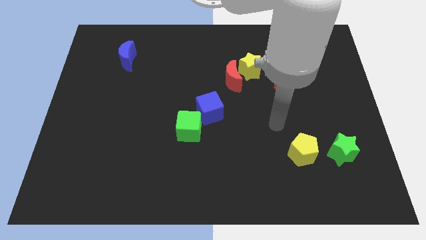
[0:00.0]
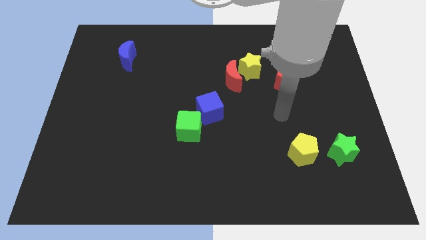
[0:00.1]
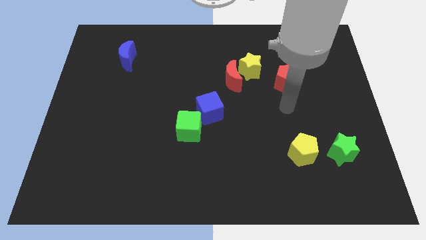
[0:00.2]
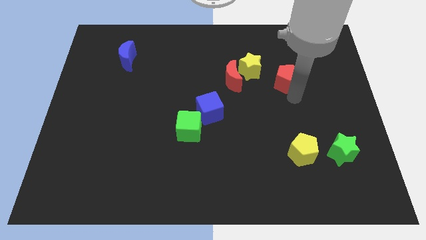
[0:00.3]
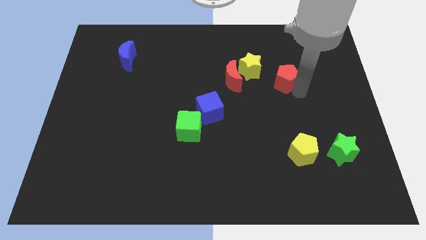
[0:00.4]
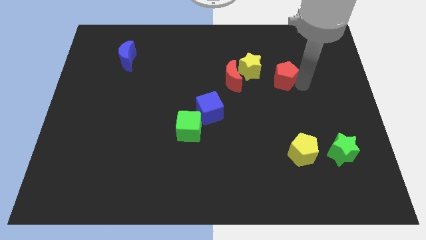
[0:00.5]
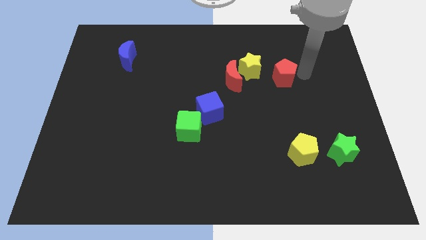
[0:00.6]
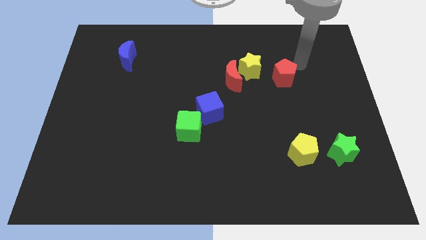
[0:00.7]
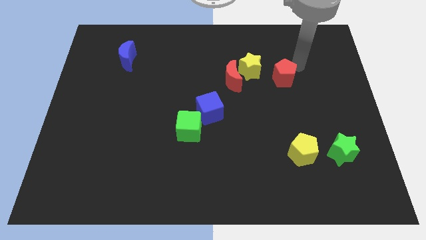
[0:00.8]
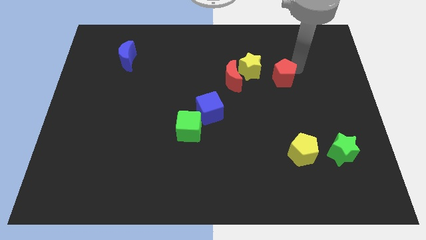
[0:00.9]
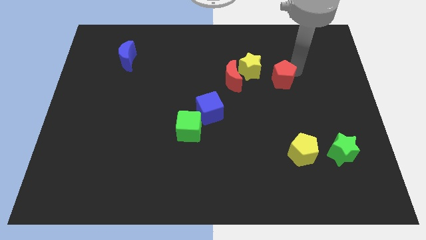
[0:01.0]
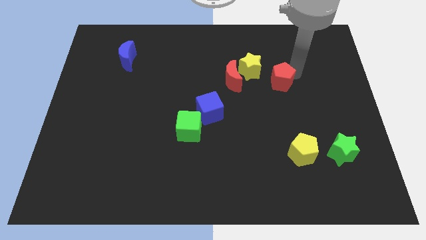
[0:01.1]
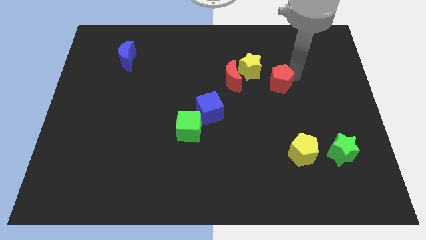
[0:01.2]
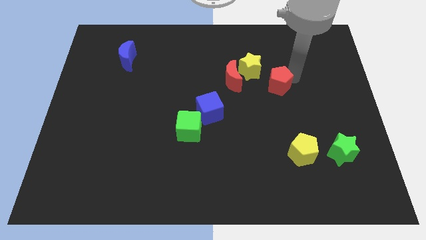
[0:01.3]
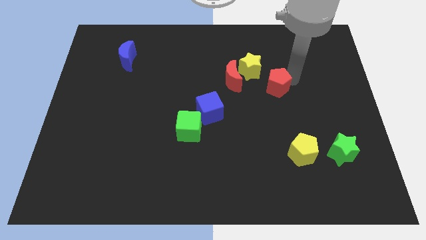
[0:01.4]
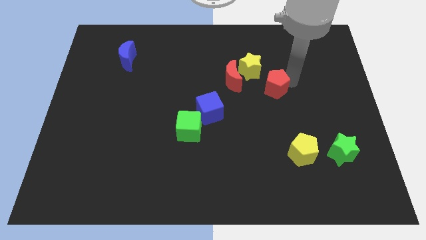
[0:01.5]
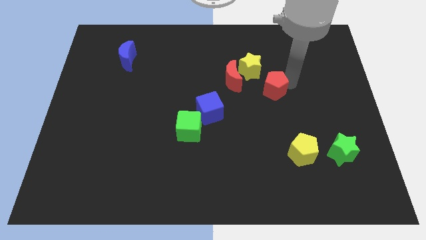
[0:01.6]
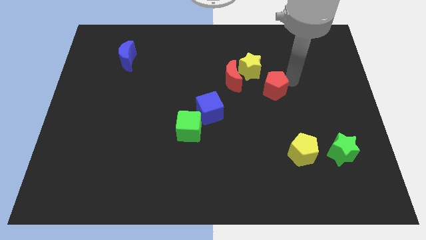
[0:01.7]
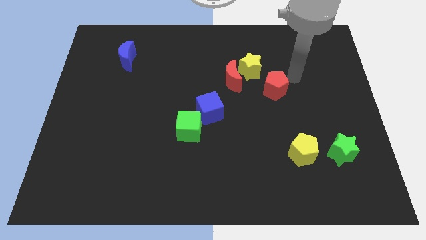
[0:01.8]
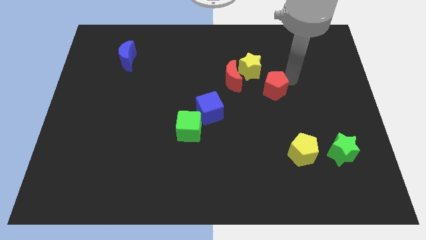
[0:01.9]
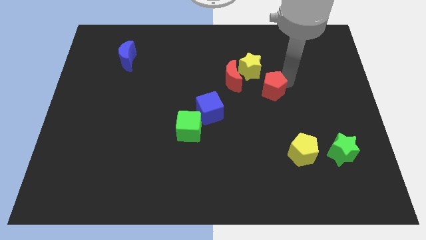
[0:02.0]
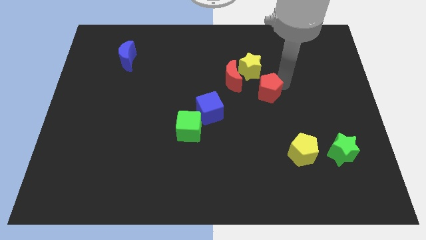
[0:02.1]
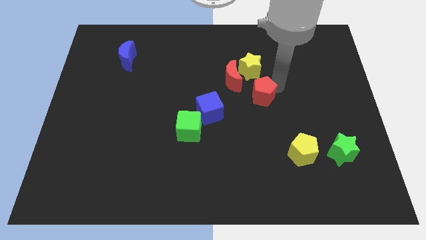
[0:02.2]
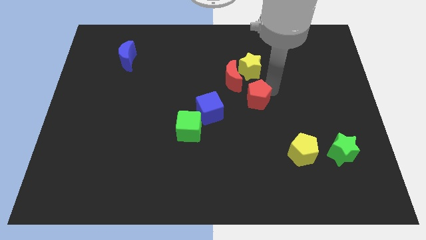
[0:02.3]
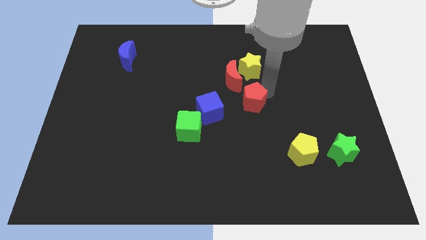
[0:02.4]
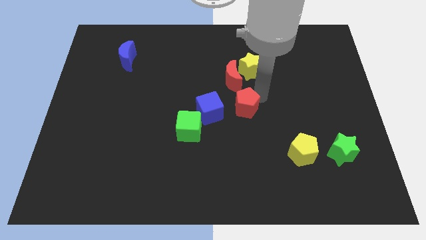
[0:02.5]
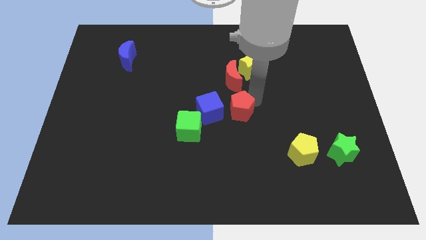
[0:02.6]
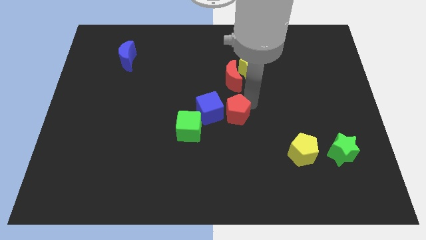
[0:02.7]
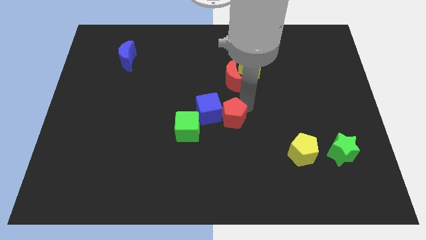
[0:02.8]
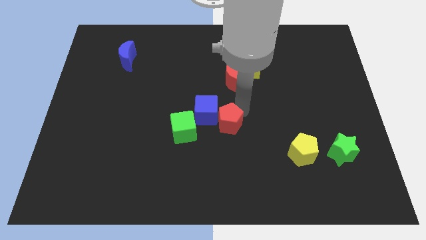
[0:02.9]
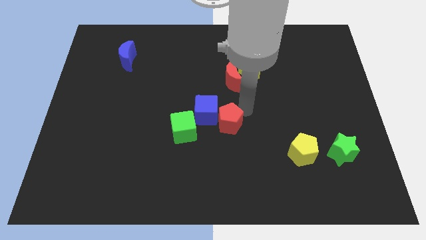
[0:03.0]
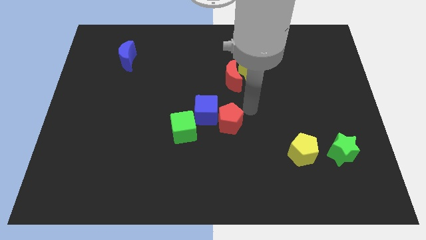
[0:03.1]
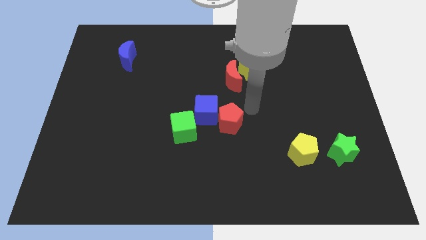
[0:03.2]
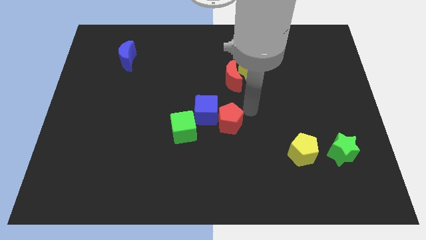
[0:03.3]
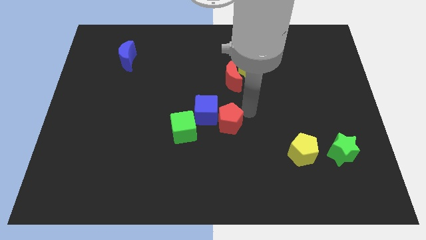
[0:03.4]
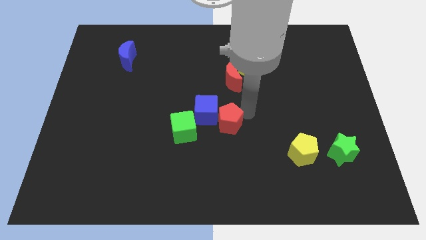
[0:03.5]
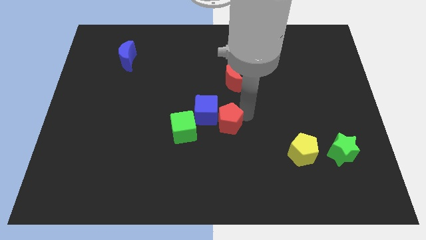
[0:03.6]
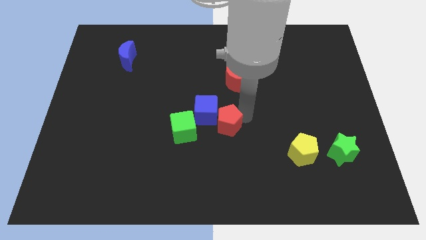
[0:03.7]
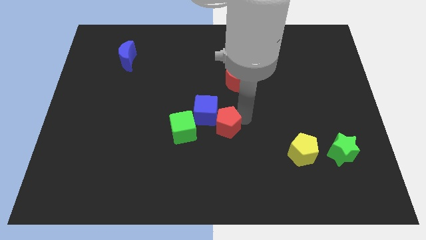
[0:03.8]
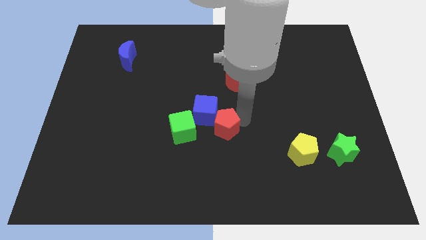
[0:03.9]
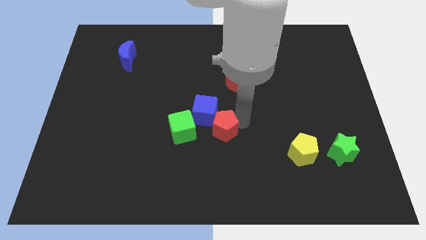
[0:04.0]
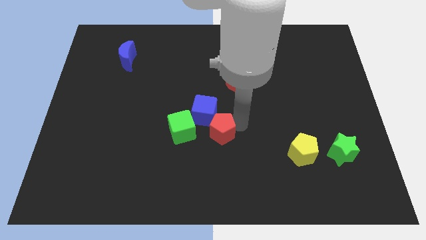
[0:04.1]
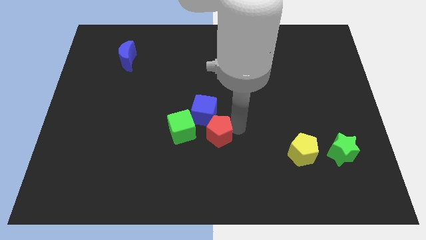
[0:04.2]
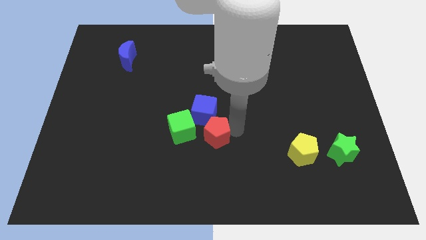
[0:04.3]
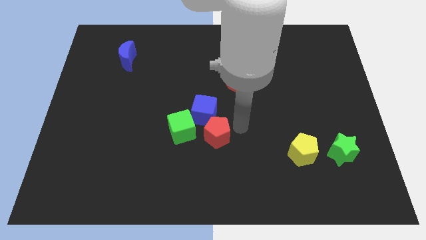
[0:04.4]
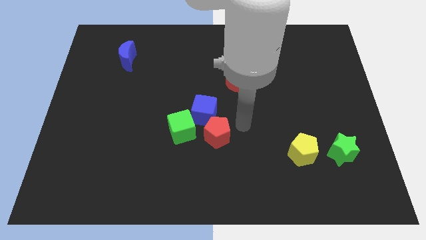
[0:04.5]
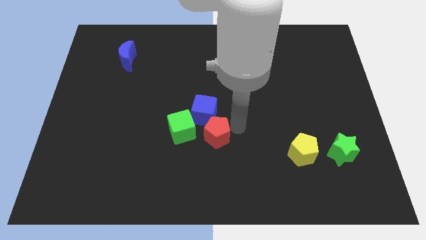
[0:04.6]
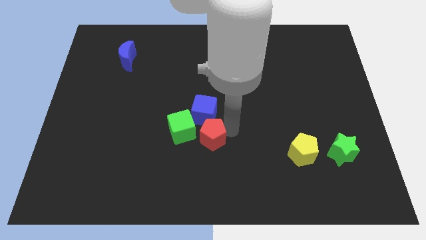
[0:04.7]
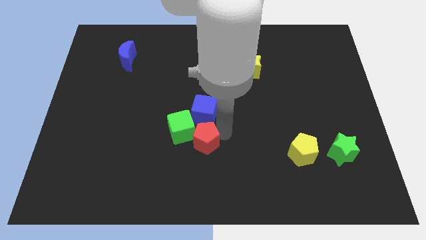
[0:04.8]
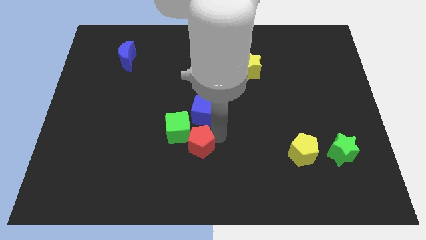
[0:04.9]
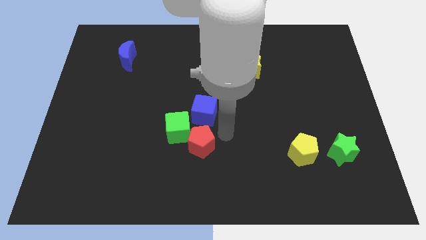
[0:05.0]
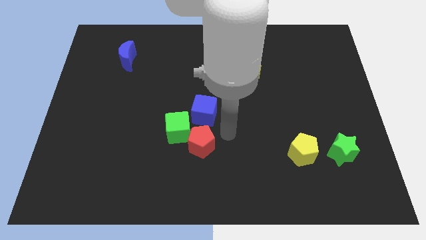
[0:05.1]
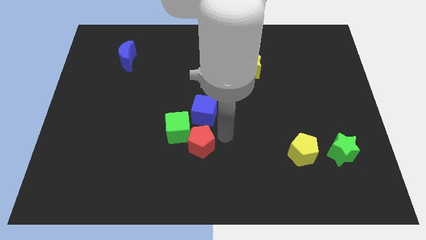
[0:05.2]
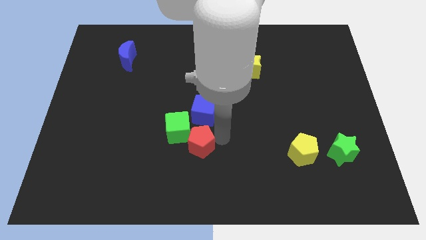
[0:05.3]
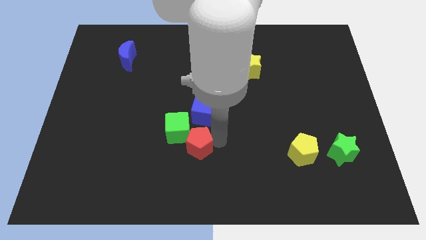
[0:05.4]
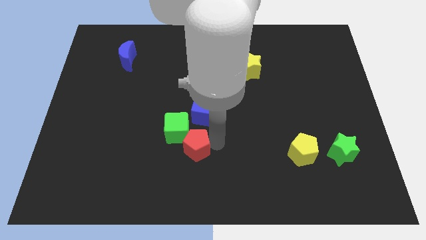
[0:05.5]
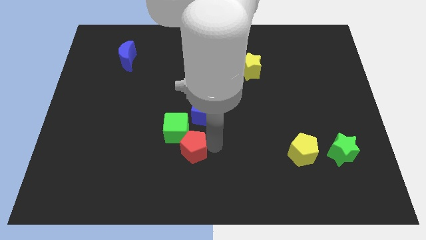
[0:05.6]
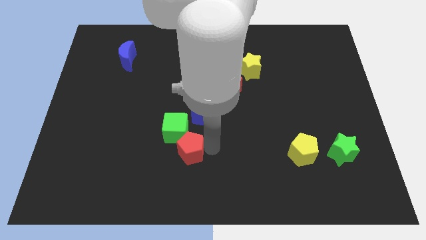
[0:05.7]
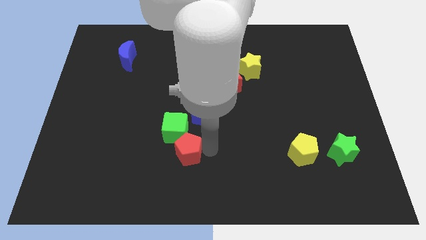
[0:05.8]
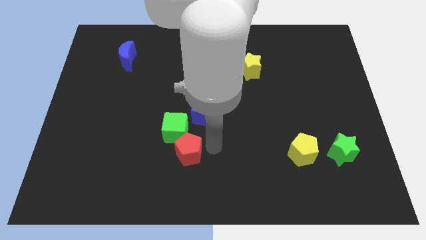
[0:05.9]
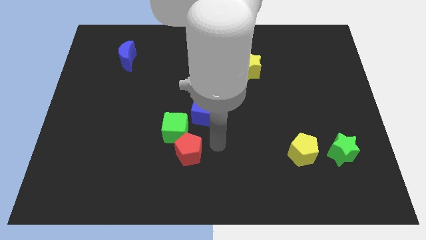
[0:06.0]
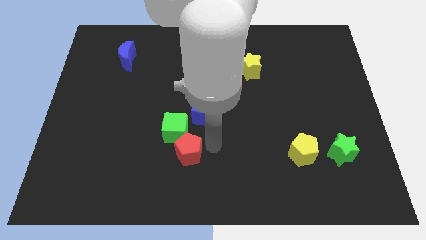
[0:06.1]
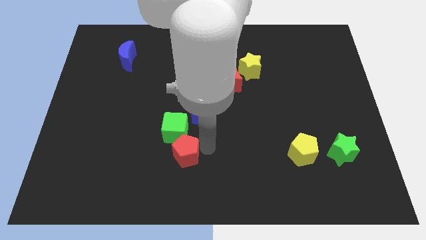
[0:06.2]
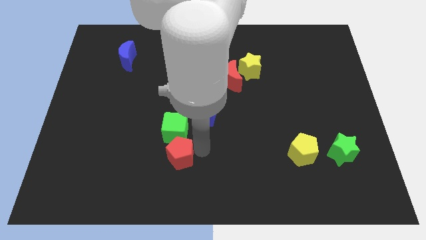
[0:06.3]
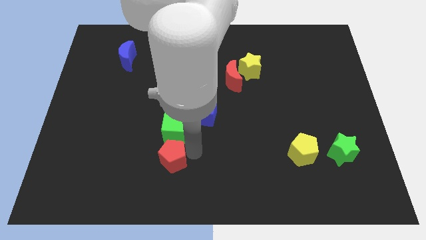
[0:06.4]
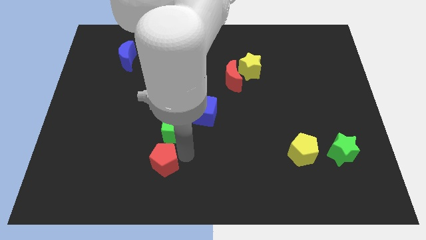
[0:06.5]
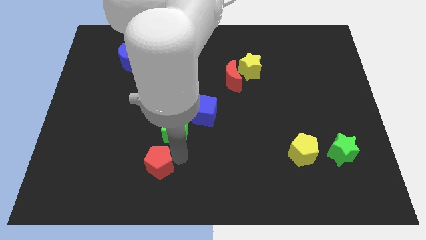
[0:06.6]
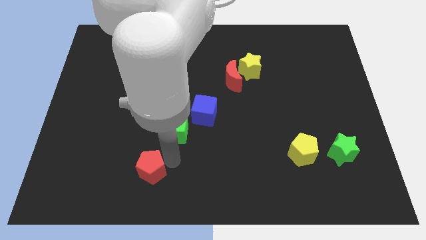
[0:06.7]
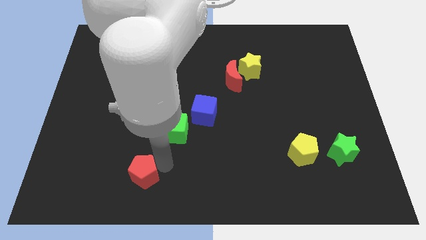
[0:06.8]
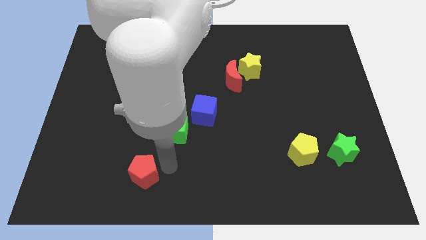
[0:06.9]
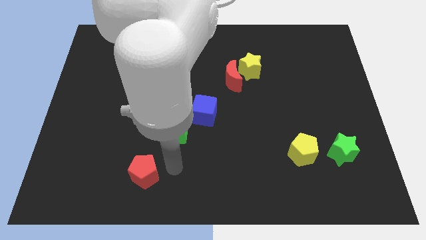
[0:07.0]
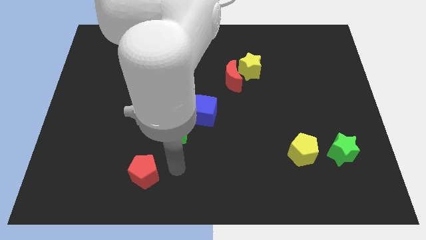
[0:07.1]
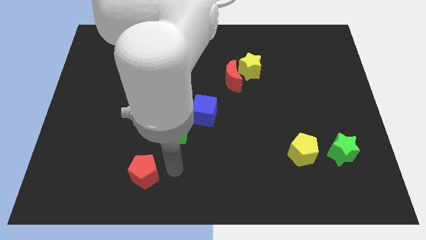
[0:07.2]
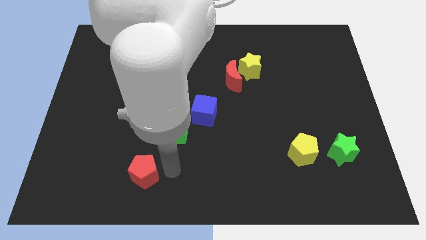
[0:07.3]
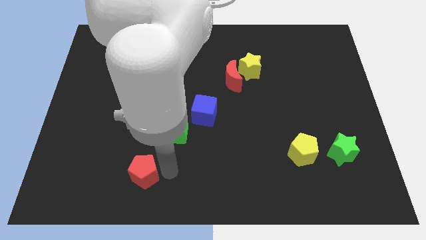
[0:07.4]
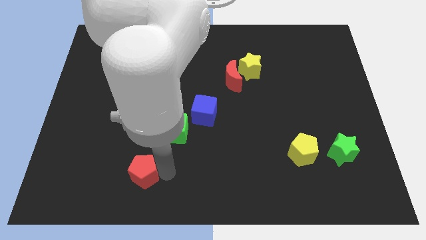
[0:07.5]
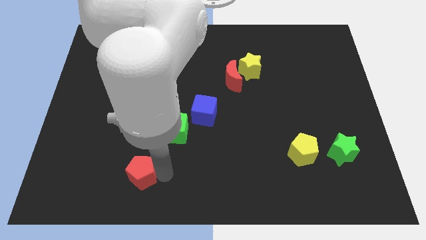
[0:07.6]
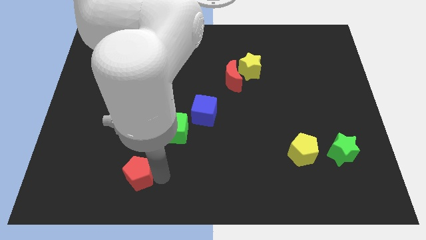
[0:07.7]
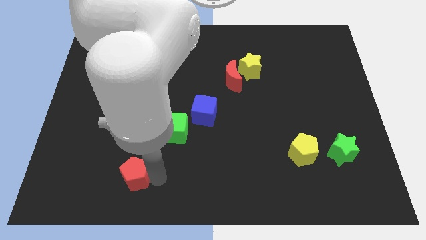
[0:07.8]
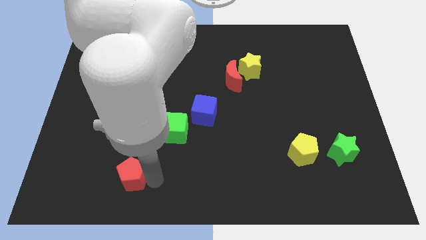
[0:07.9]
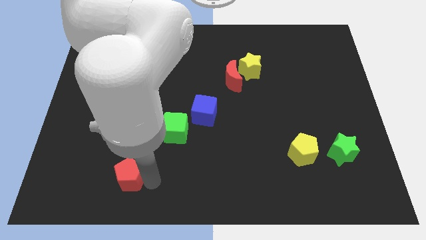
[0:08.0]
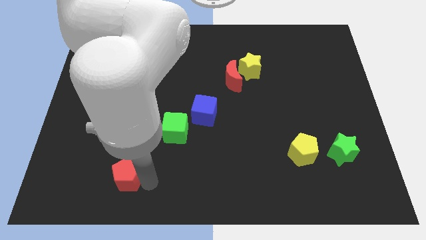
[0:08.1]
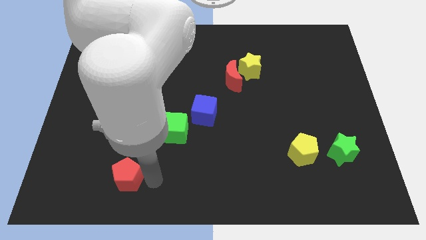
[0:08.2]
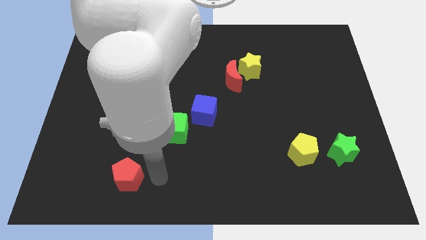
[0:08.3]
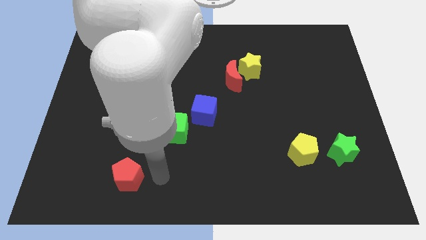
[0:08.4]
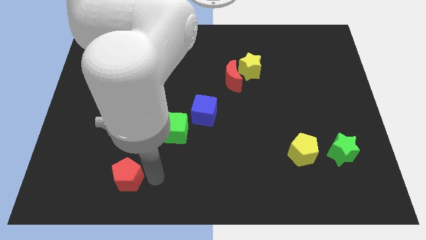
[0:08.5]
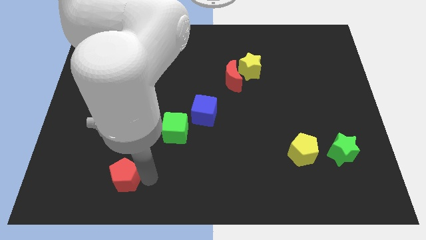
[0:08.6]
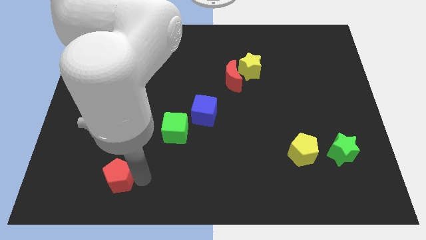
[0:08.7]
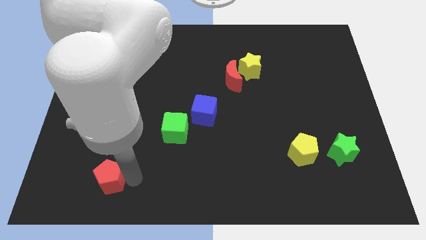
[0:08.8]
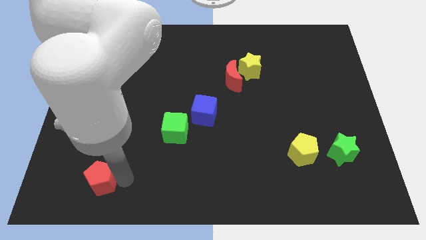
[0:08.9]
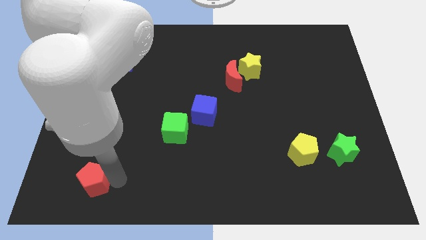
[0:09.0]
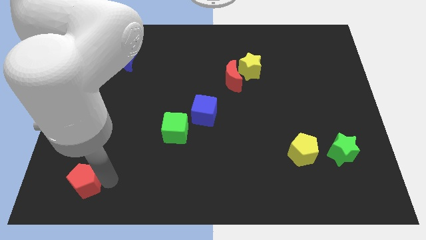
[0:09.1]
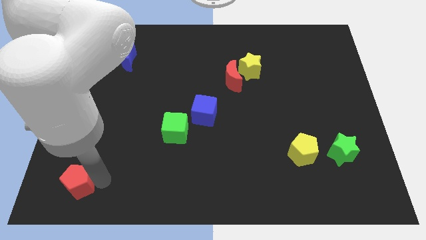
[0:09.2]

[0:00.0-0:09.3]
move the red pentagon to the lower left corner
